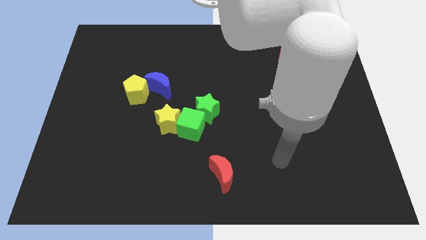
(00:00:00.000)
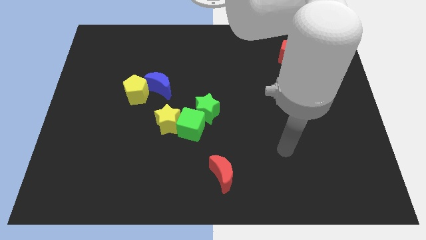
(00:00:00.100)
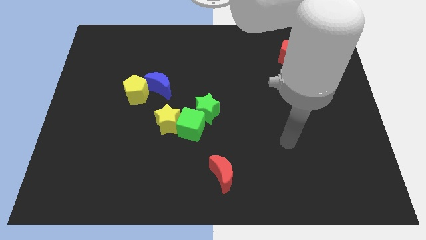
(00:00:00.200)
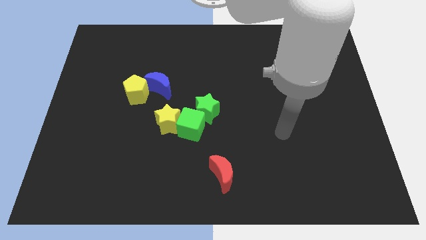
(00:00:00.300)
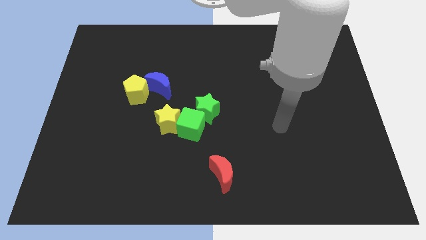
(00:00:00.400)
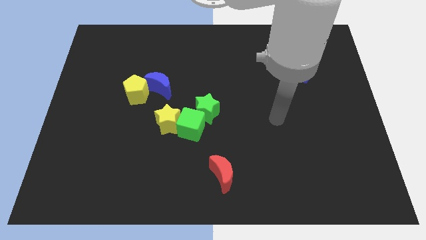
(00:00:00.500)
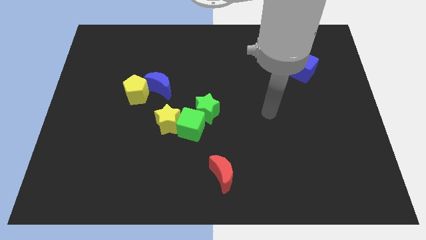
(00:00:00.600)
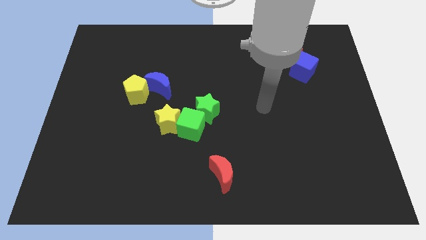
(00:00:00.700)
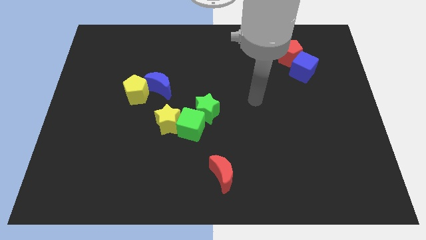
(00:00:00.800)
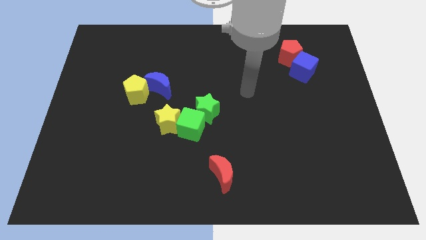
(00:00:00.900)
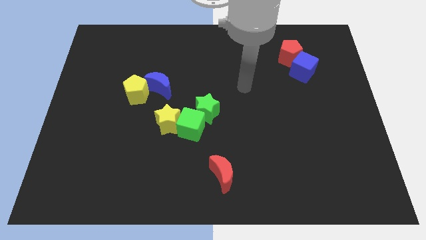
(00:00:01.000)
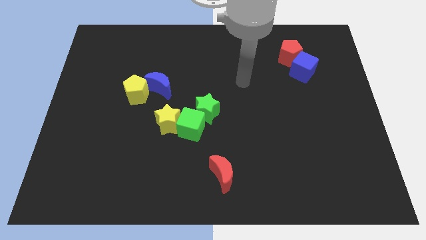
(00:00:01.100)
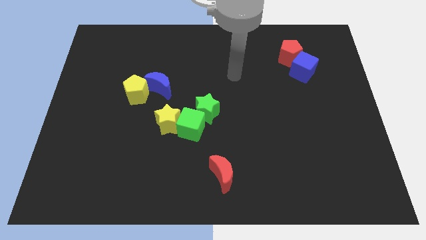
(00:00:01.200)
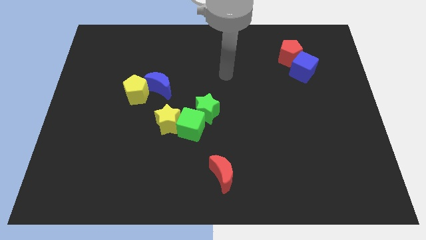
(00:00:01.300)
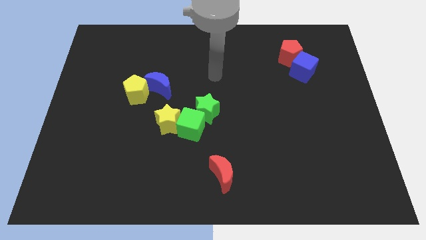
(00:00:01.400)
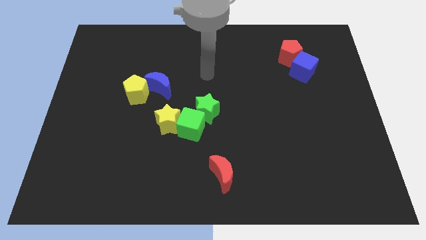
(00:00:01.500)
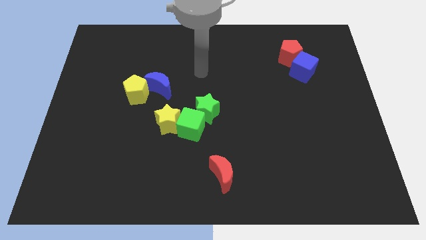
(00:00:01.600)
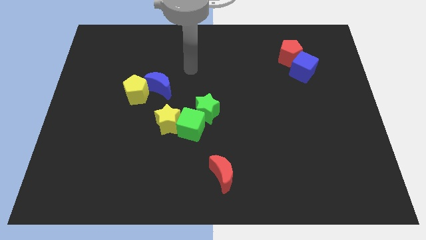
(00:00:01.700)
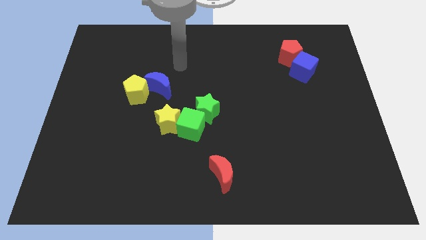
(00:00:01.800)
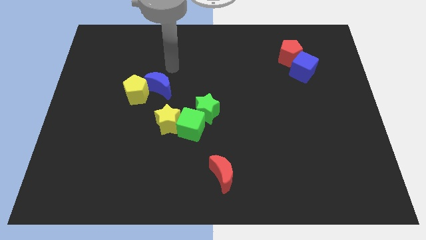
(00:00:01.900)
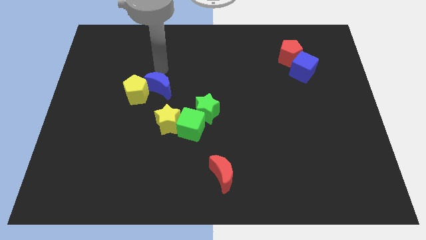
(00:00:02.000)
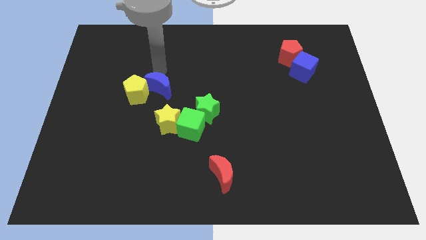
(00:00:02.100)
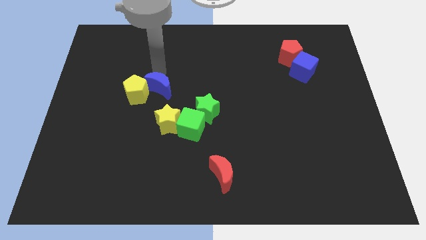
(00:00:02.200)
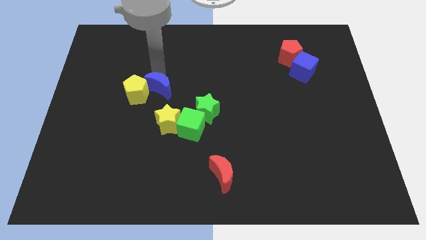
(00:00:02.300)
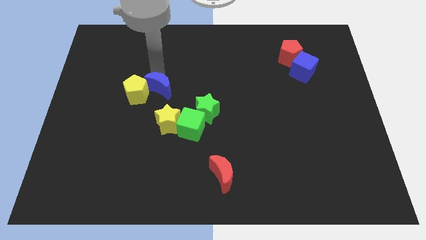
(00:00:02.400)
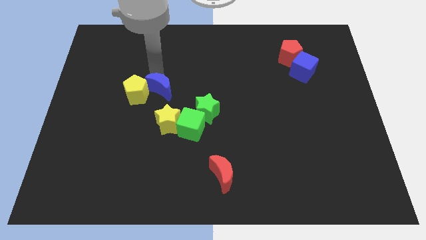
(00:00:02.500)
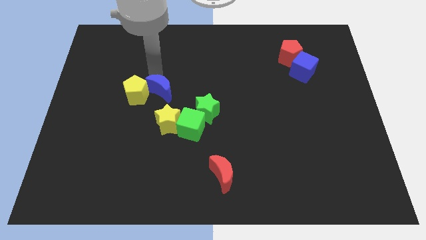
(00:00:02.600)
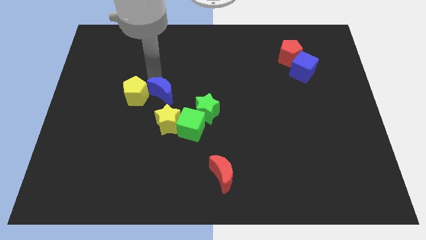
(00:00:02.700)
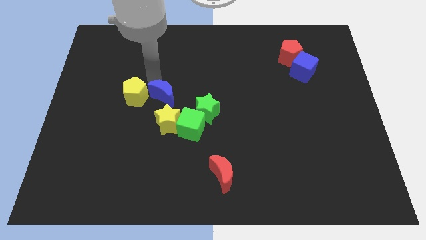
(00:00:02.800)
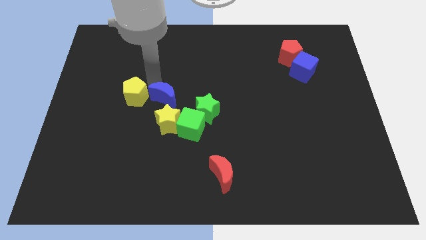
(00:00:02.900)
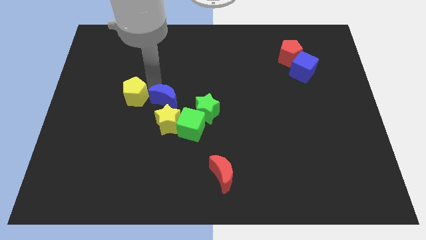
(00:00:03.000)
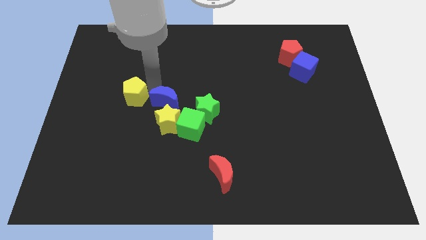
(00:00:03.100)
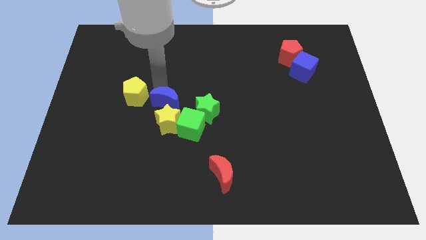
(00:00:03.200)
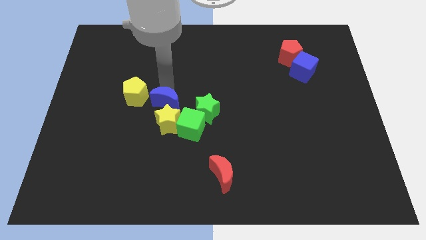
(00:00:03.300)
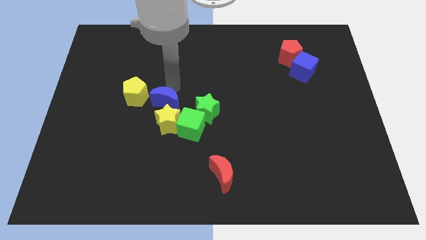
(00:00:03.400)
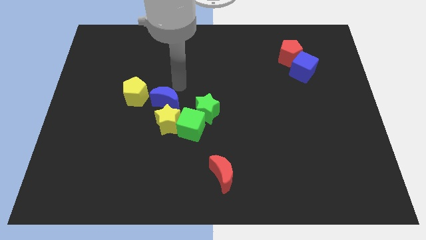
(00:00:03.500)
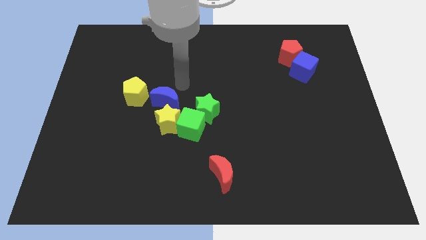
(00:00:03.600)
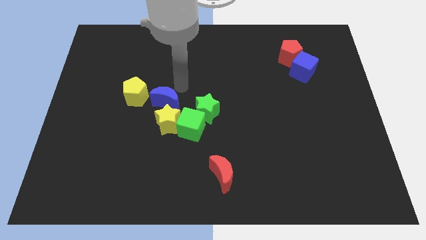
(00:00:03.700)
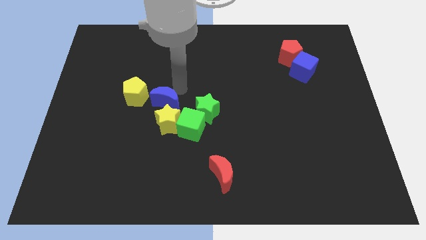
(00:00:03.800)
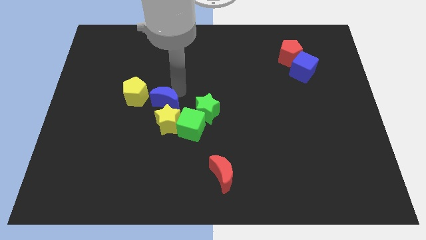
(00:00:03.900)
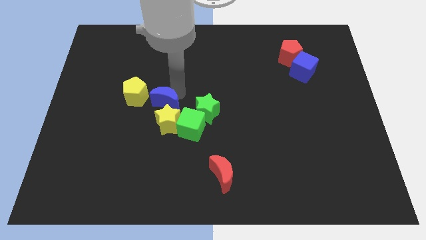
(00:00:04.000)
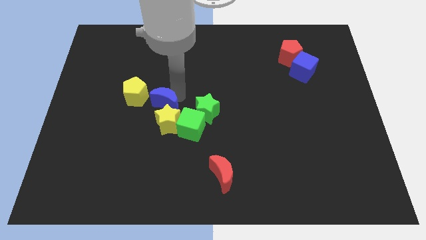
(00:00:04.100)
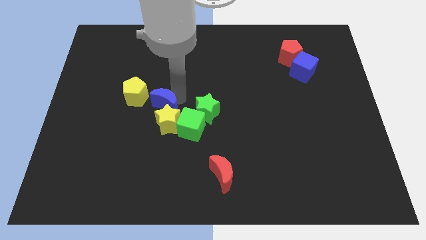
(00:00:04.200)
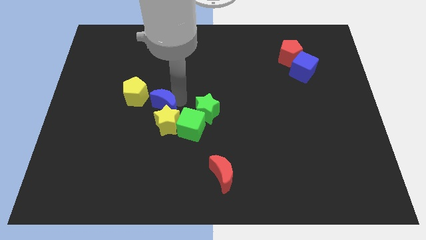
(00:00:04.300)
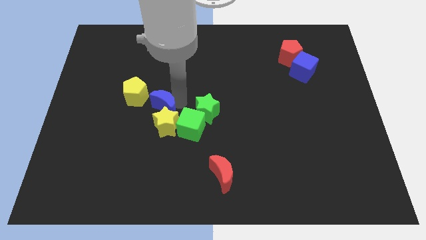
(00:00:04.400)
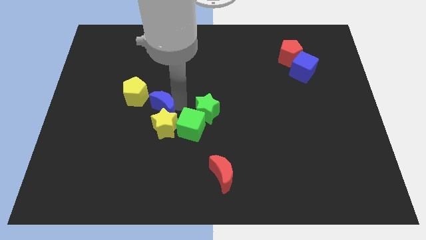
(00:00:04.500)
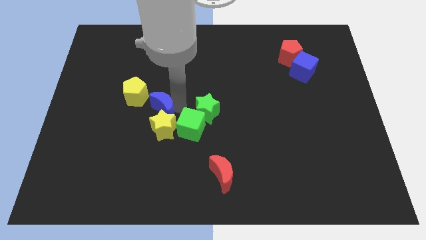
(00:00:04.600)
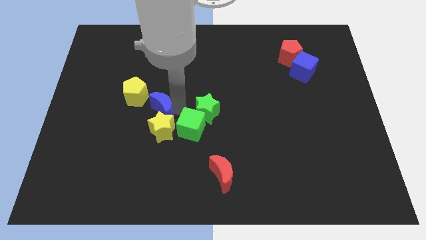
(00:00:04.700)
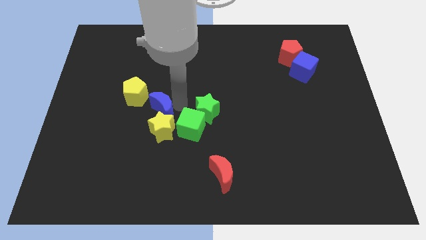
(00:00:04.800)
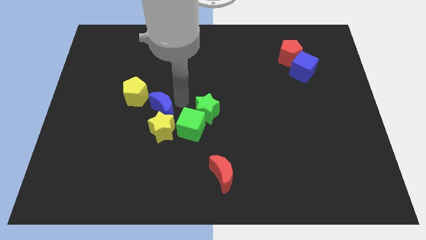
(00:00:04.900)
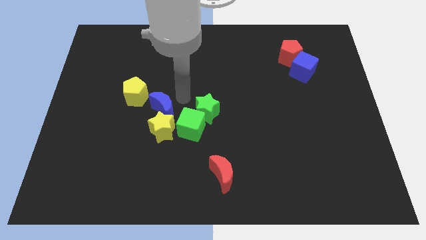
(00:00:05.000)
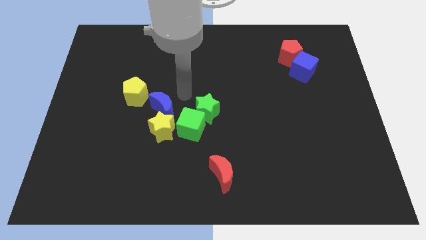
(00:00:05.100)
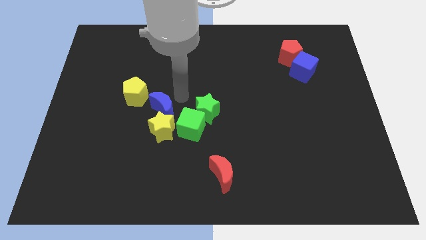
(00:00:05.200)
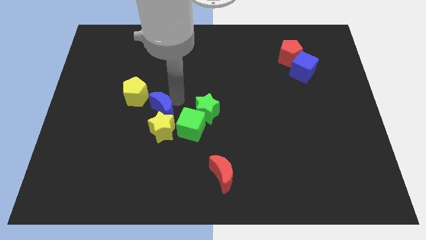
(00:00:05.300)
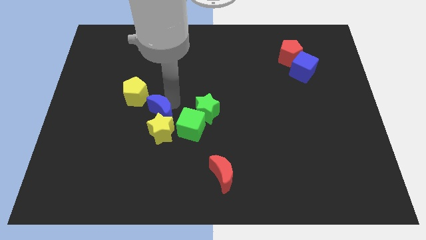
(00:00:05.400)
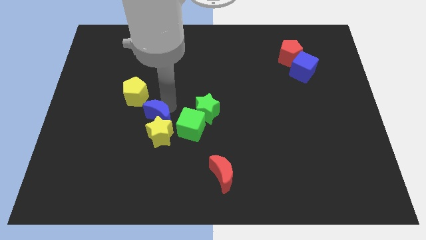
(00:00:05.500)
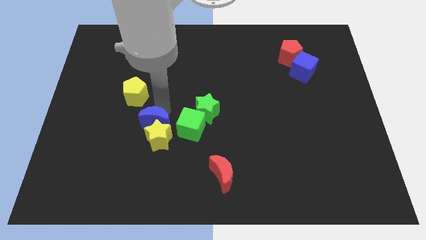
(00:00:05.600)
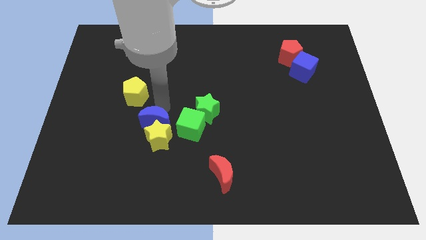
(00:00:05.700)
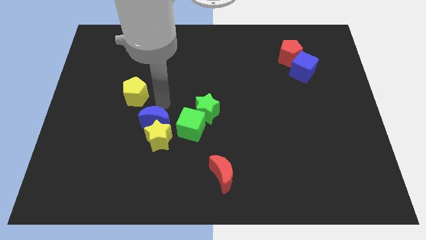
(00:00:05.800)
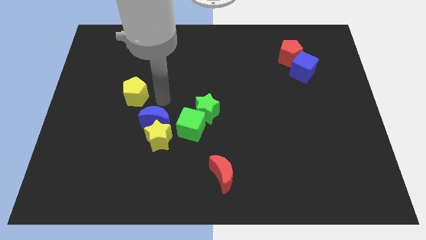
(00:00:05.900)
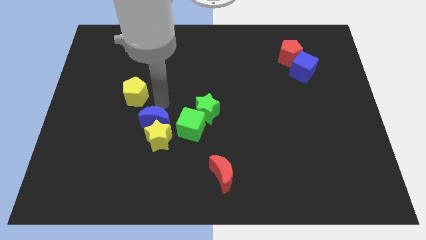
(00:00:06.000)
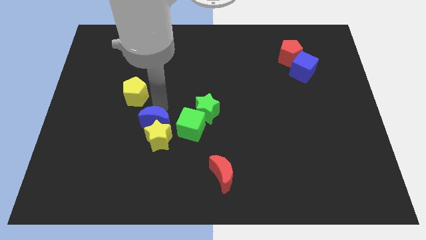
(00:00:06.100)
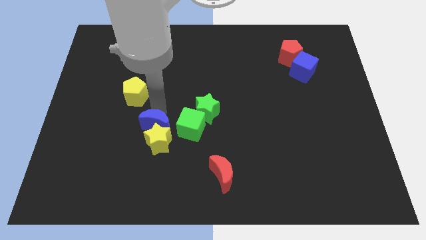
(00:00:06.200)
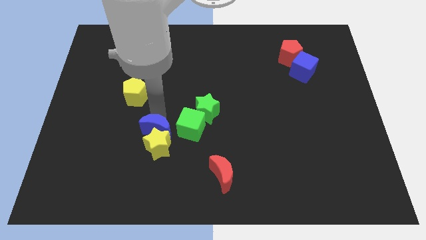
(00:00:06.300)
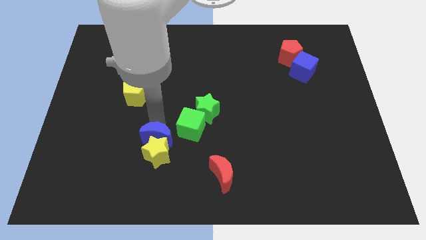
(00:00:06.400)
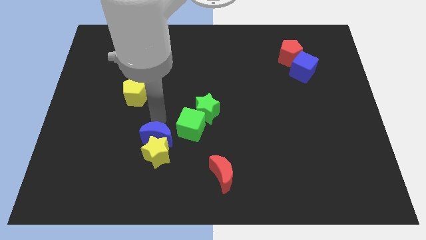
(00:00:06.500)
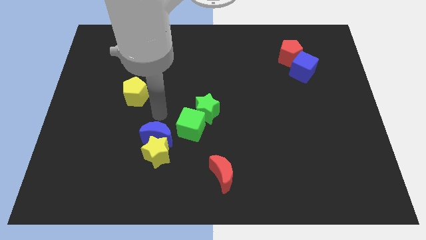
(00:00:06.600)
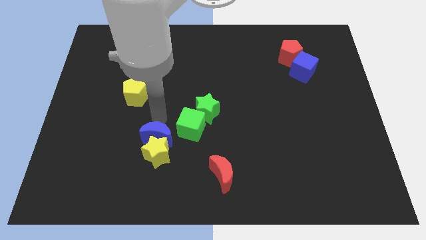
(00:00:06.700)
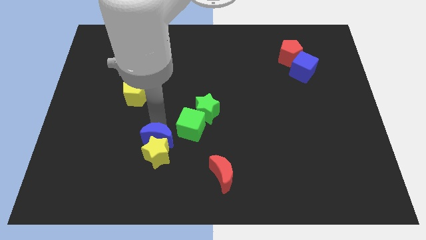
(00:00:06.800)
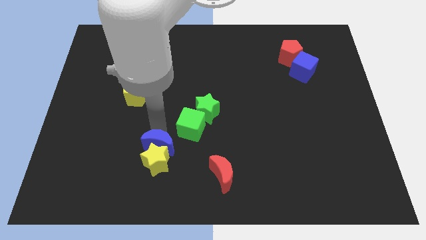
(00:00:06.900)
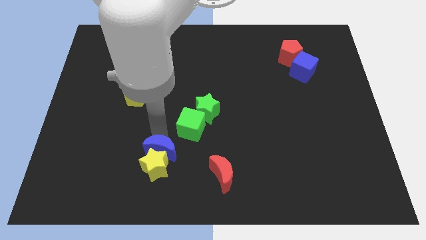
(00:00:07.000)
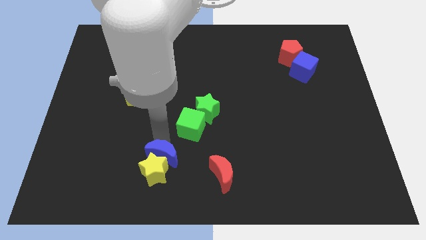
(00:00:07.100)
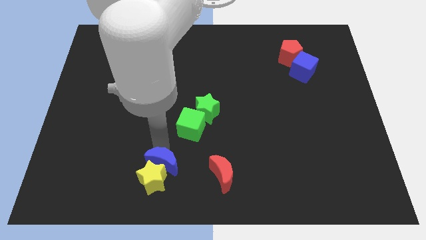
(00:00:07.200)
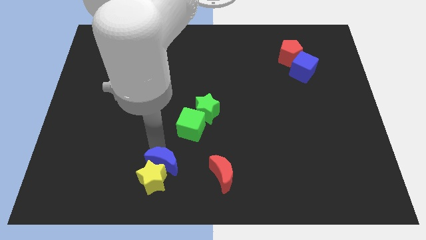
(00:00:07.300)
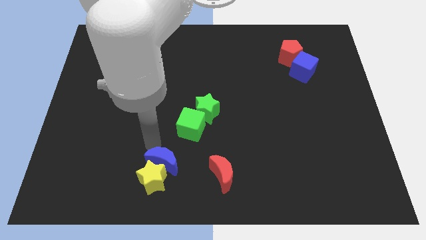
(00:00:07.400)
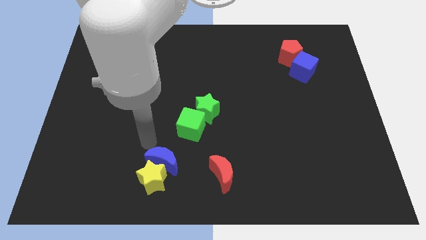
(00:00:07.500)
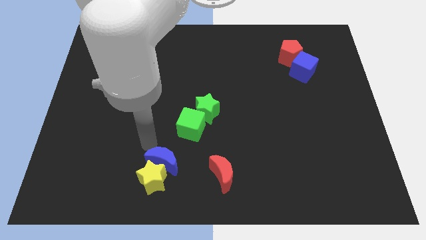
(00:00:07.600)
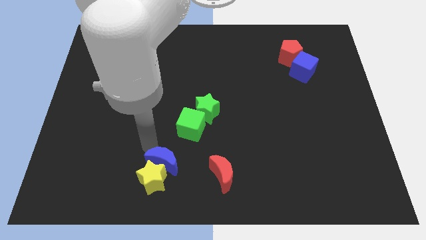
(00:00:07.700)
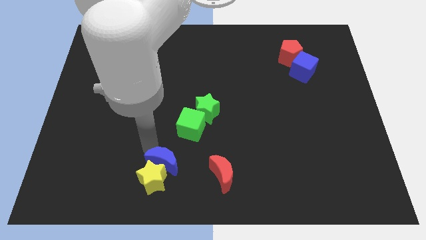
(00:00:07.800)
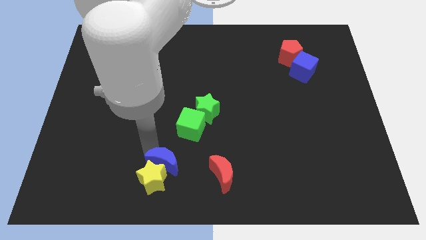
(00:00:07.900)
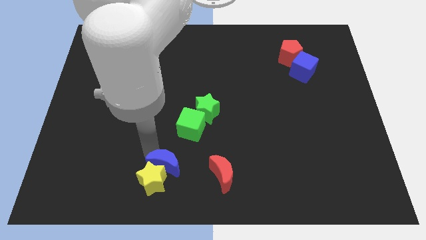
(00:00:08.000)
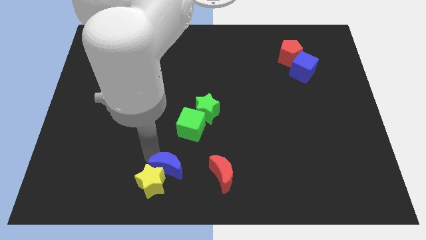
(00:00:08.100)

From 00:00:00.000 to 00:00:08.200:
push the blue moon to the bottom side
